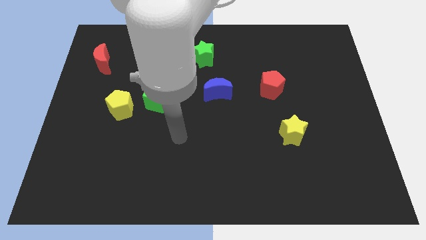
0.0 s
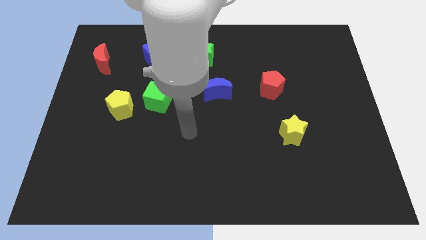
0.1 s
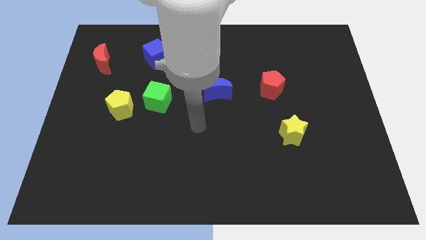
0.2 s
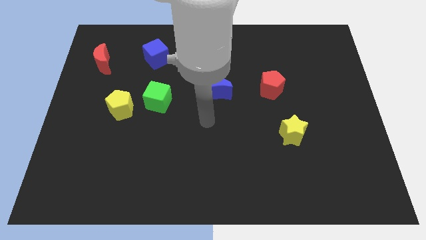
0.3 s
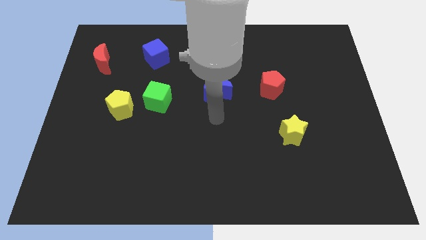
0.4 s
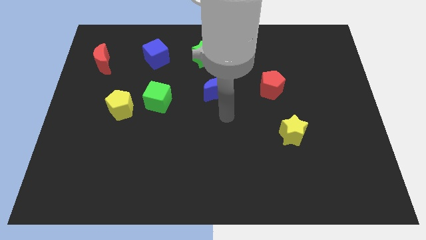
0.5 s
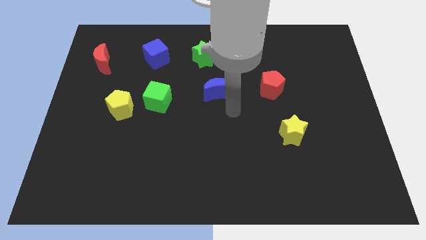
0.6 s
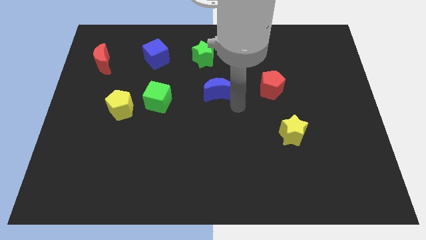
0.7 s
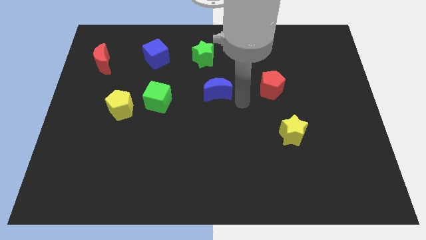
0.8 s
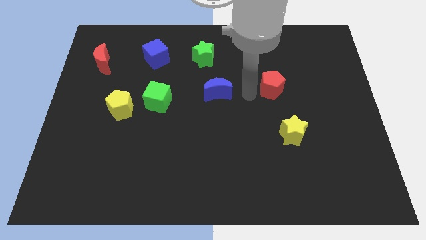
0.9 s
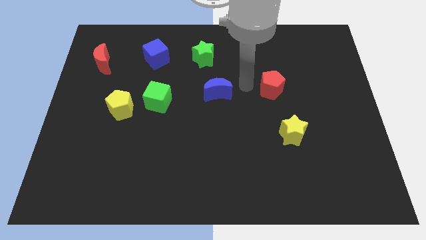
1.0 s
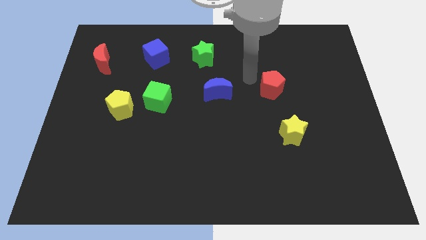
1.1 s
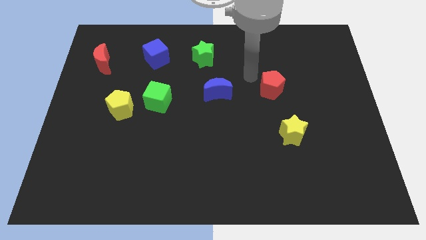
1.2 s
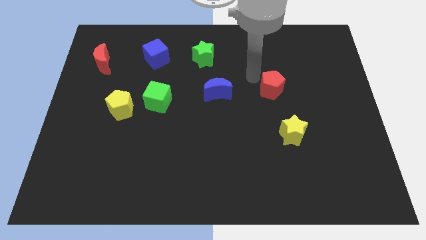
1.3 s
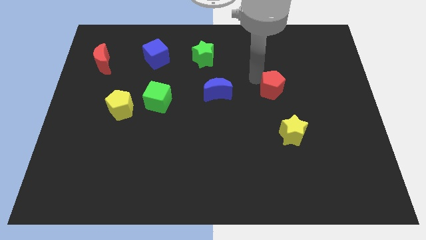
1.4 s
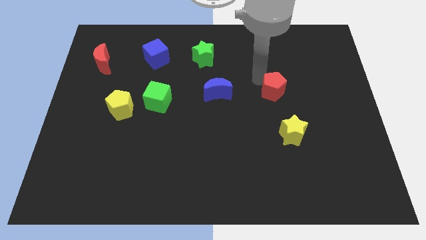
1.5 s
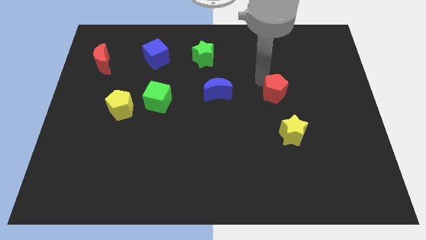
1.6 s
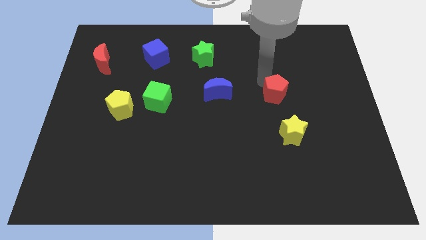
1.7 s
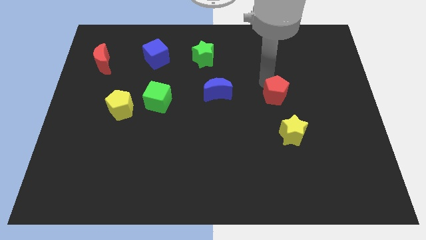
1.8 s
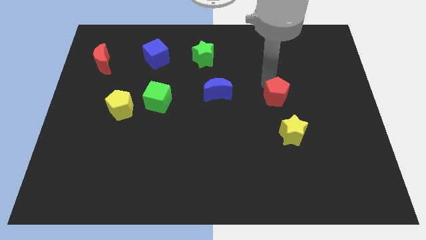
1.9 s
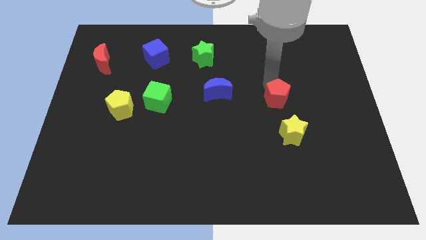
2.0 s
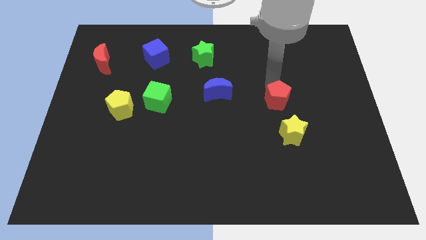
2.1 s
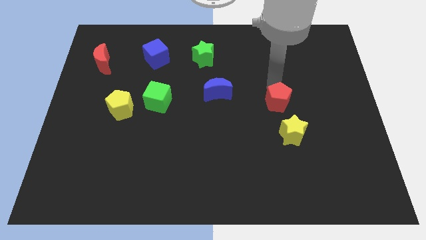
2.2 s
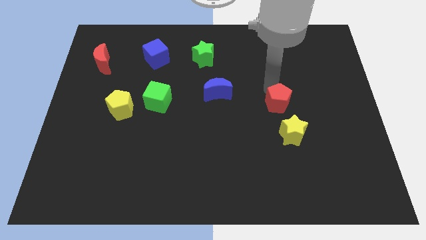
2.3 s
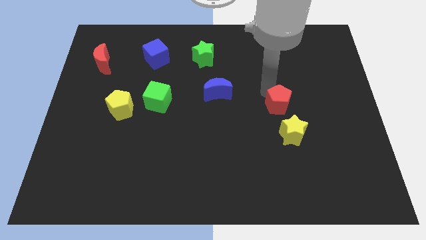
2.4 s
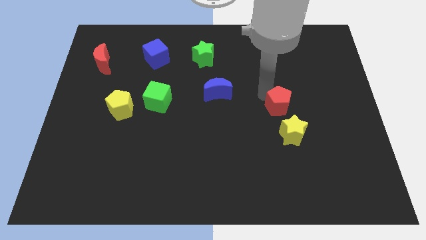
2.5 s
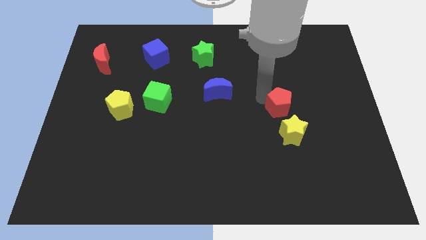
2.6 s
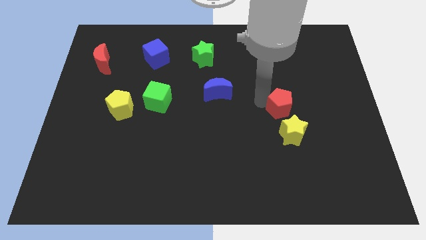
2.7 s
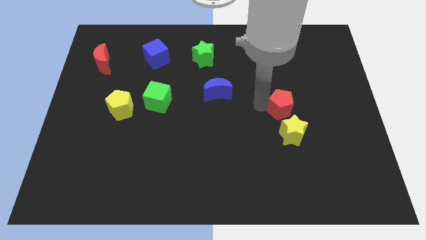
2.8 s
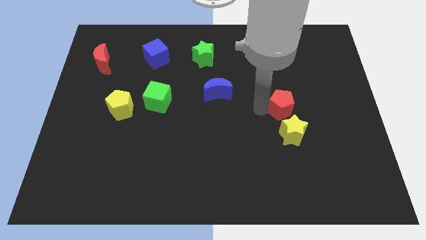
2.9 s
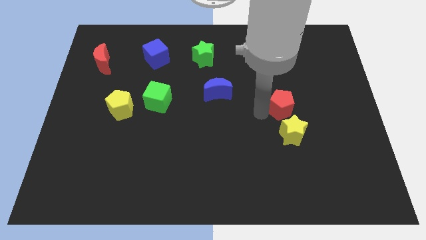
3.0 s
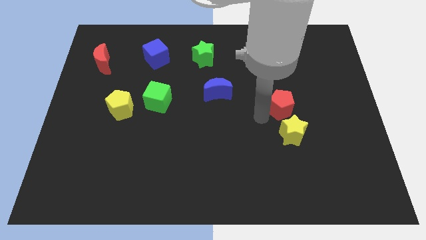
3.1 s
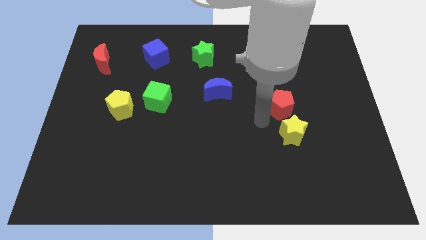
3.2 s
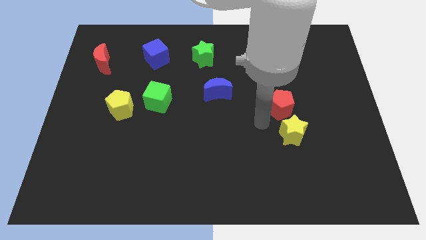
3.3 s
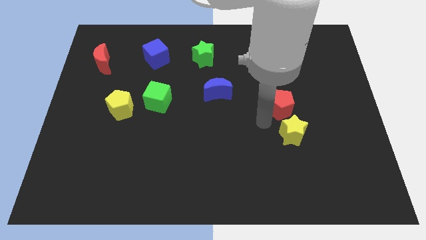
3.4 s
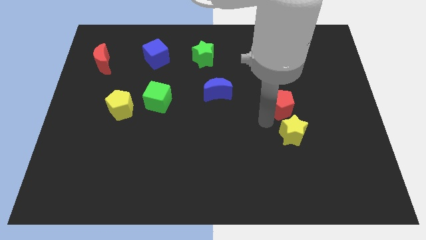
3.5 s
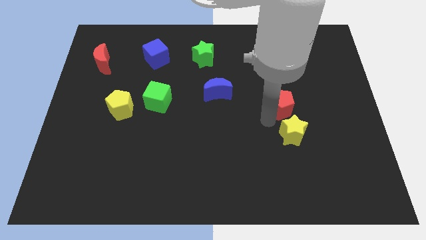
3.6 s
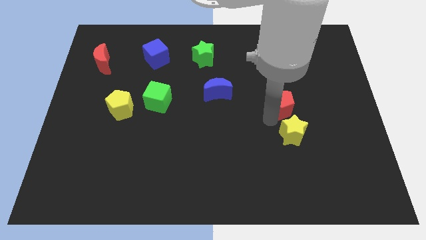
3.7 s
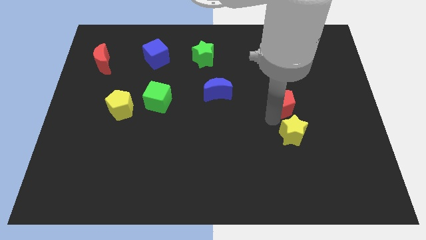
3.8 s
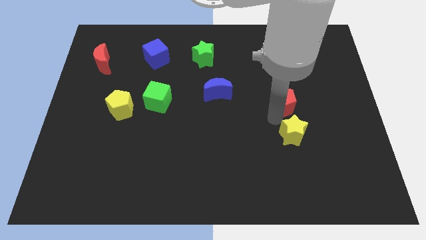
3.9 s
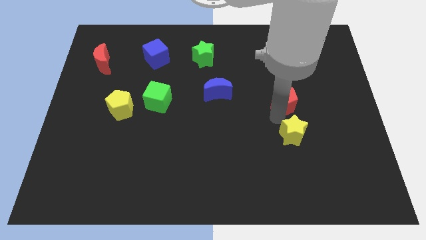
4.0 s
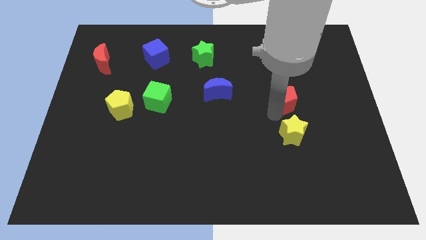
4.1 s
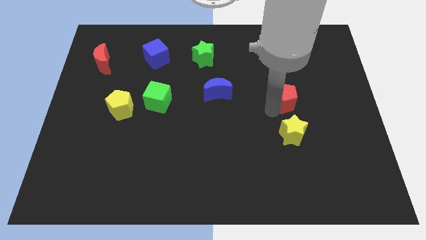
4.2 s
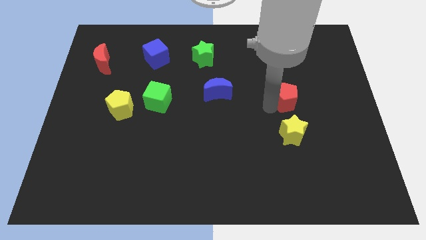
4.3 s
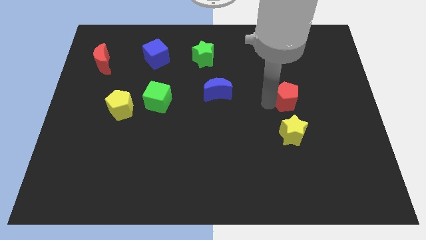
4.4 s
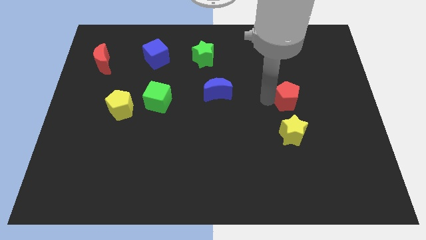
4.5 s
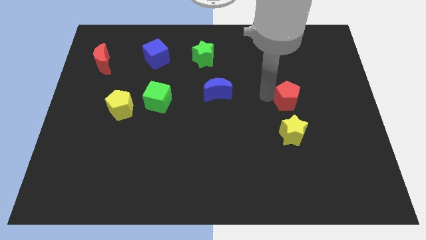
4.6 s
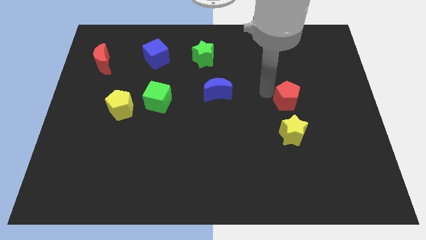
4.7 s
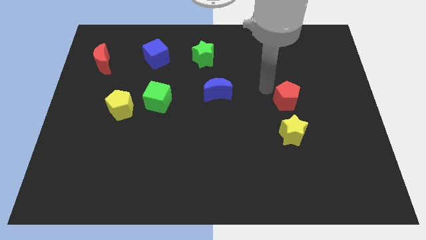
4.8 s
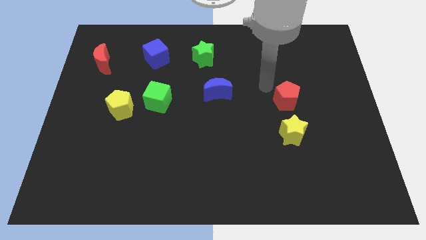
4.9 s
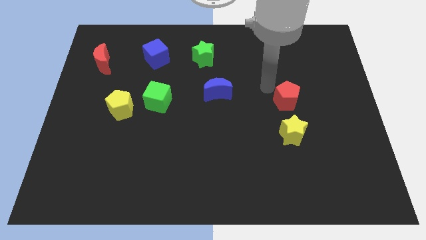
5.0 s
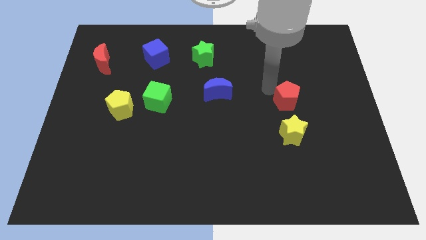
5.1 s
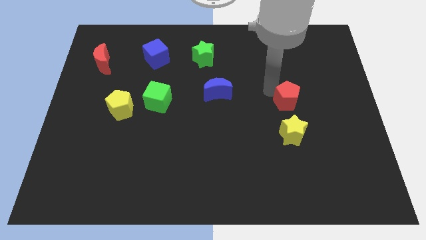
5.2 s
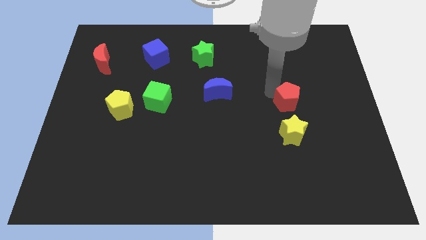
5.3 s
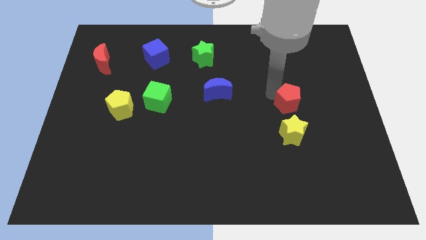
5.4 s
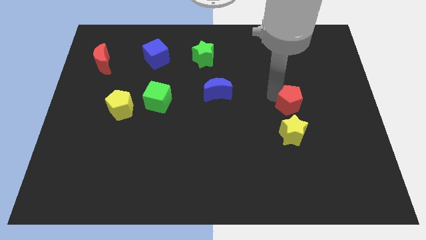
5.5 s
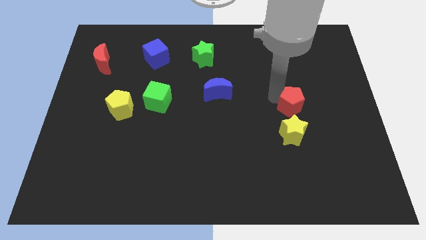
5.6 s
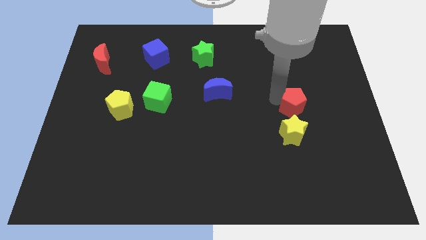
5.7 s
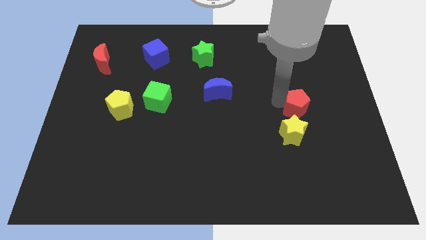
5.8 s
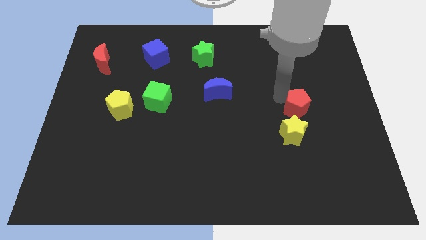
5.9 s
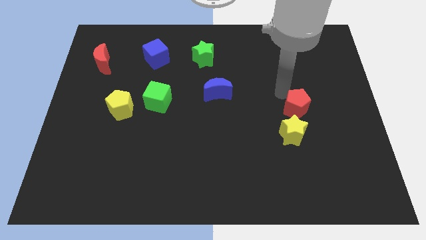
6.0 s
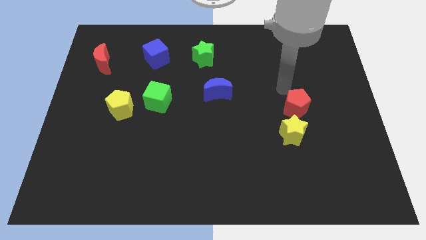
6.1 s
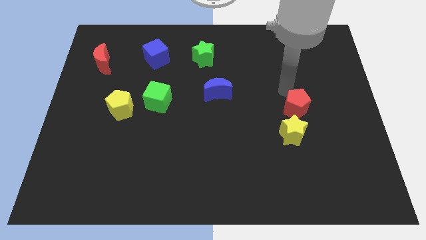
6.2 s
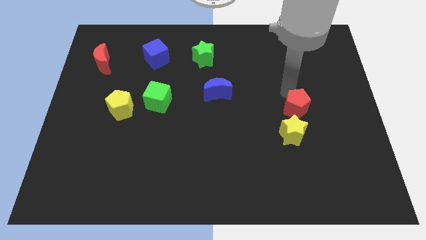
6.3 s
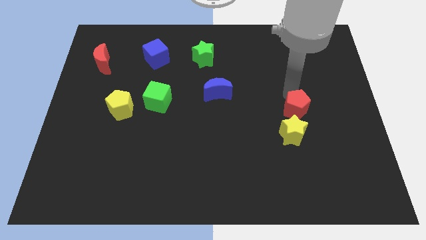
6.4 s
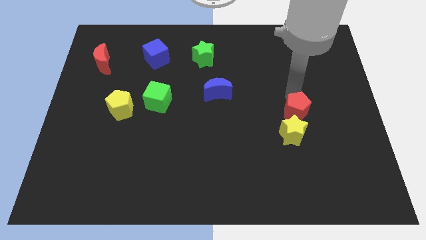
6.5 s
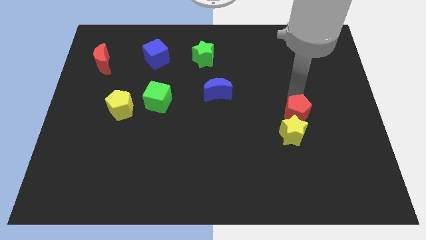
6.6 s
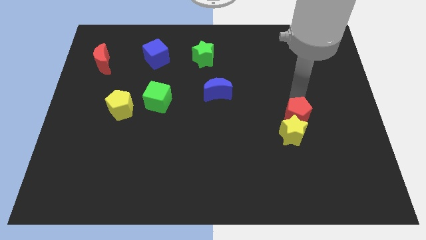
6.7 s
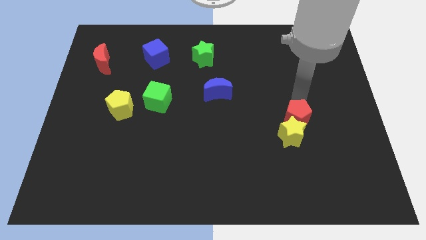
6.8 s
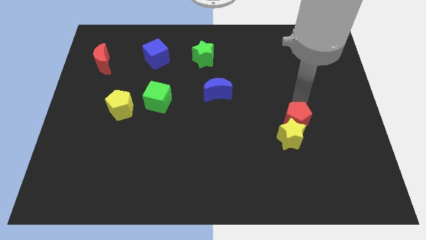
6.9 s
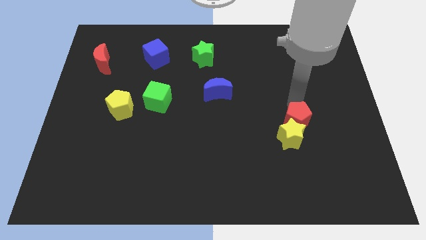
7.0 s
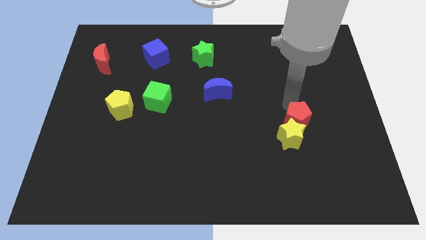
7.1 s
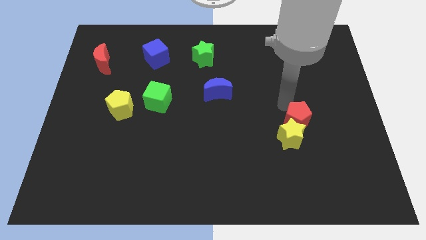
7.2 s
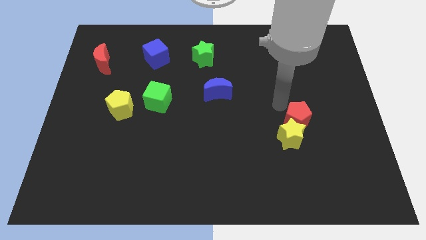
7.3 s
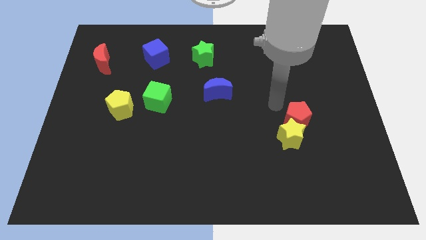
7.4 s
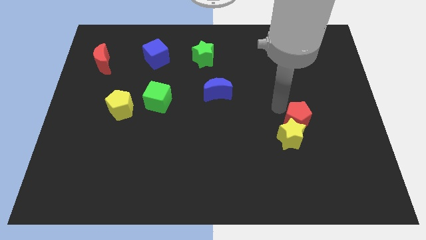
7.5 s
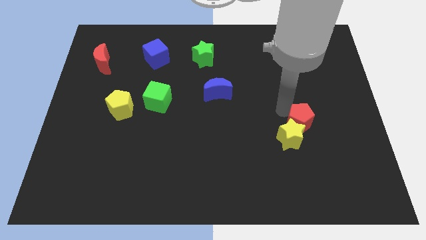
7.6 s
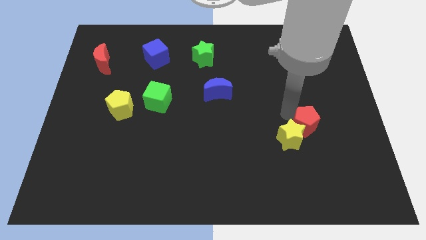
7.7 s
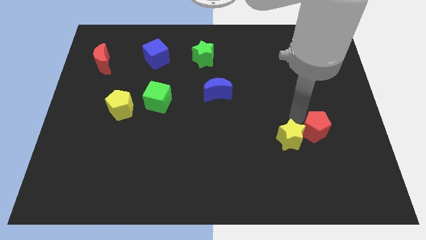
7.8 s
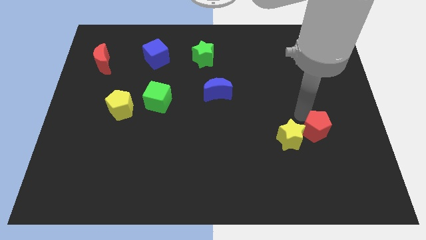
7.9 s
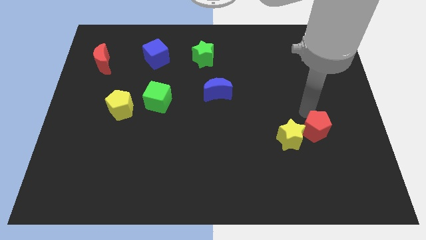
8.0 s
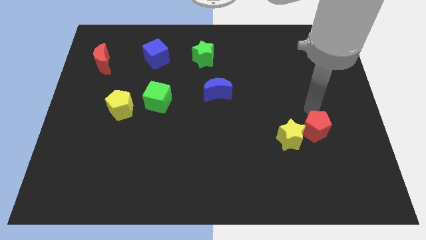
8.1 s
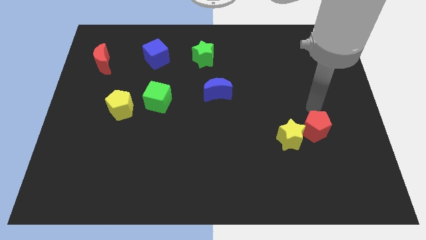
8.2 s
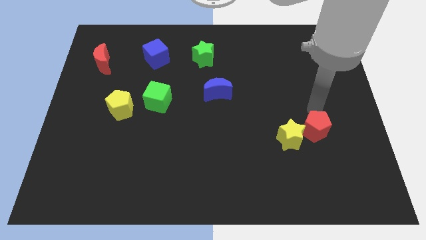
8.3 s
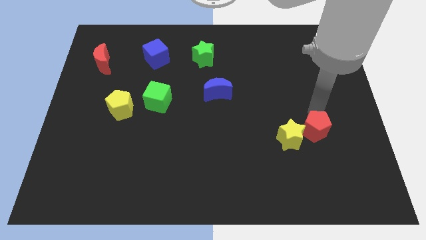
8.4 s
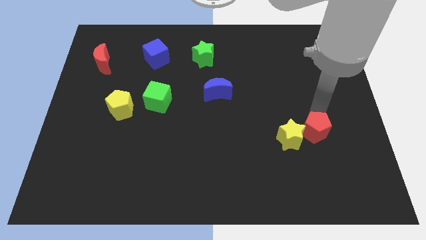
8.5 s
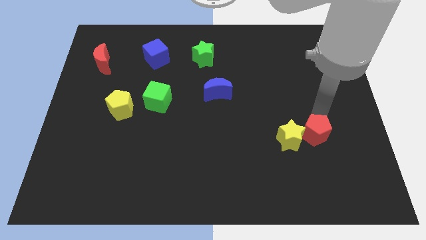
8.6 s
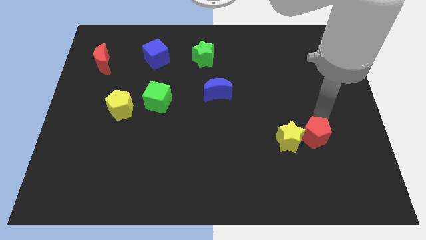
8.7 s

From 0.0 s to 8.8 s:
move the red pentagon to the bottom right side of the yellow star
